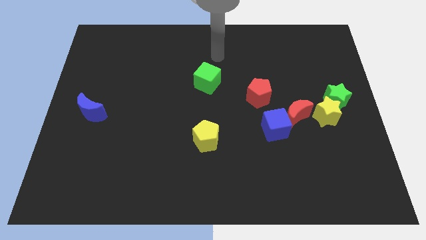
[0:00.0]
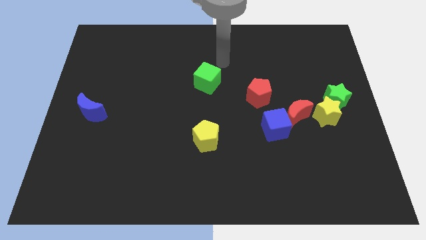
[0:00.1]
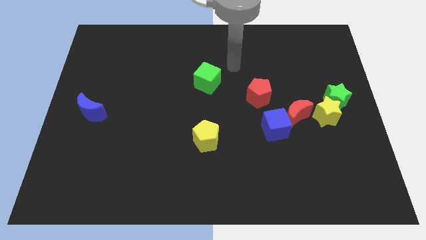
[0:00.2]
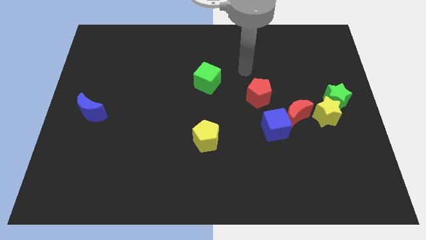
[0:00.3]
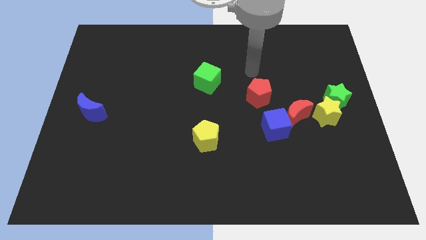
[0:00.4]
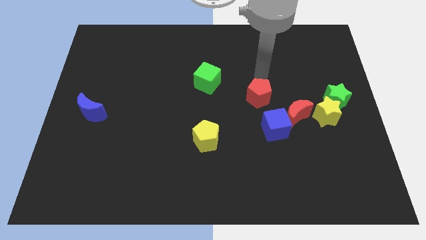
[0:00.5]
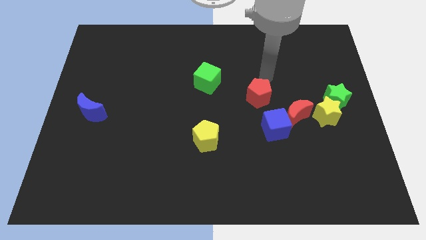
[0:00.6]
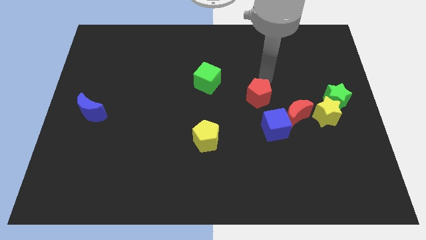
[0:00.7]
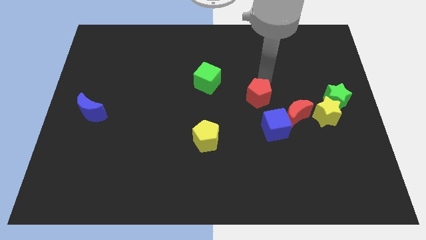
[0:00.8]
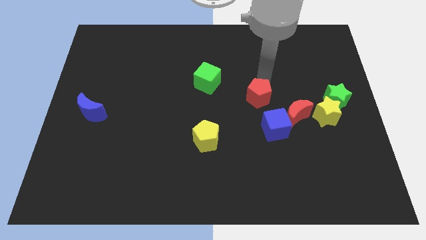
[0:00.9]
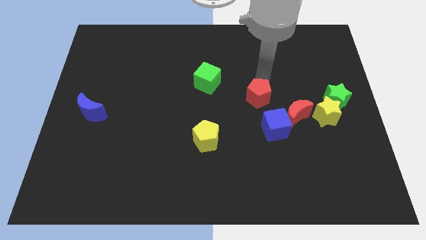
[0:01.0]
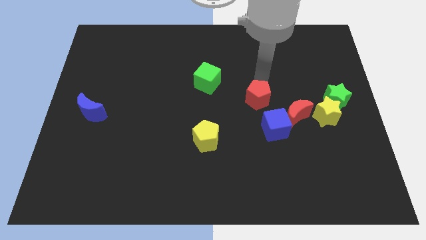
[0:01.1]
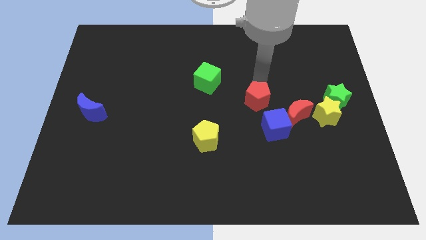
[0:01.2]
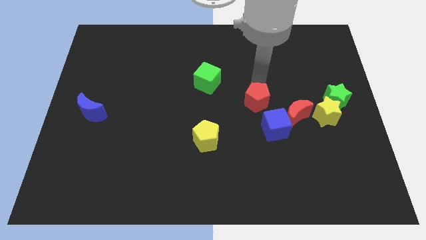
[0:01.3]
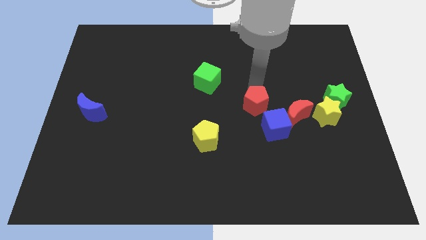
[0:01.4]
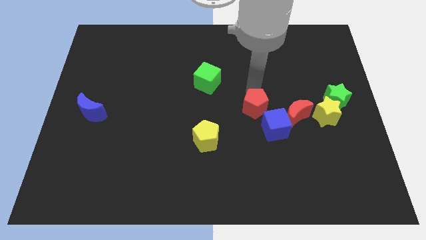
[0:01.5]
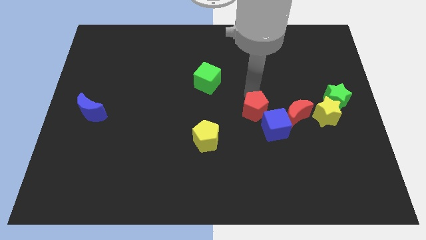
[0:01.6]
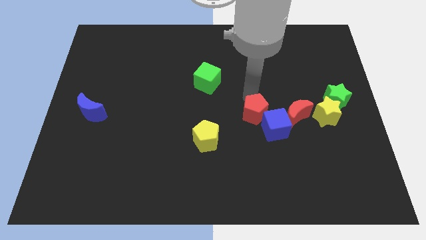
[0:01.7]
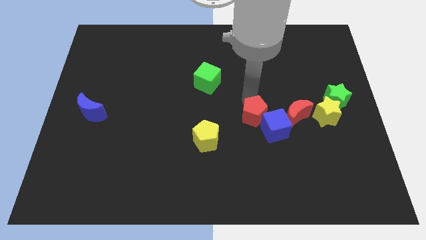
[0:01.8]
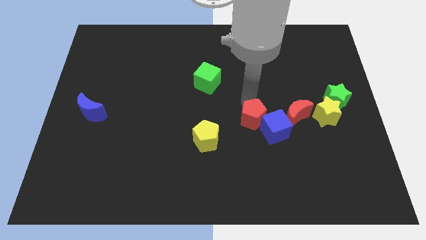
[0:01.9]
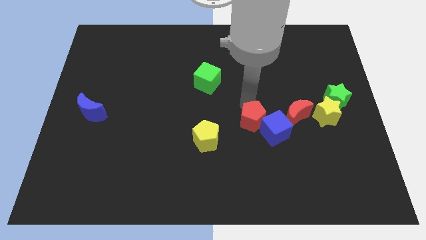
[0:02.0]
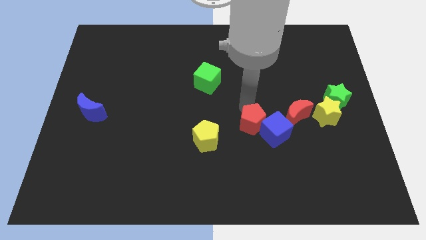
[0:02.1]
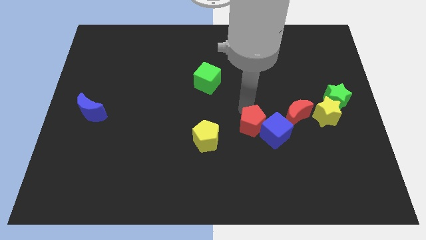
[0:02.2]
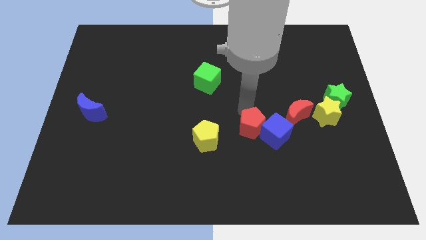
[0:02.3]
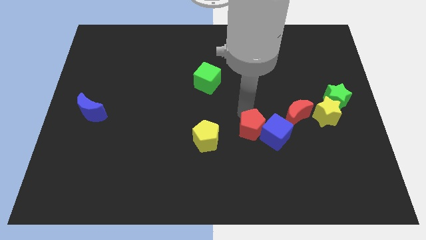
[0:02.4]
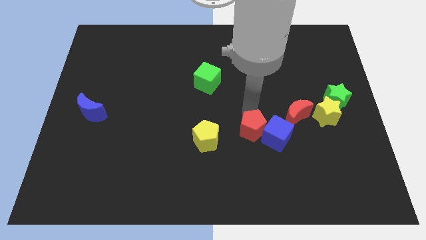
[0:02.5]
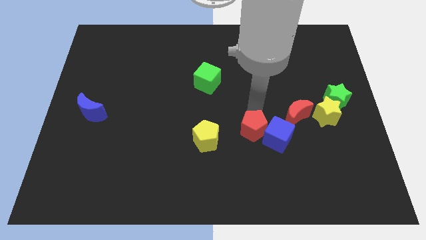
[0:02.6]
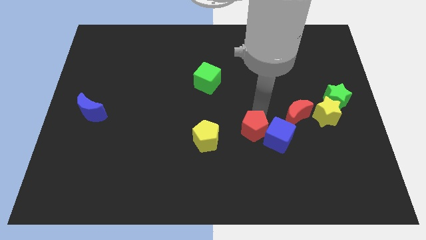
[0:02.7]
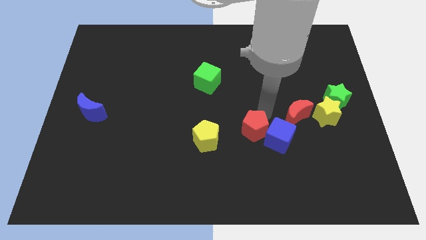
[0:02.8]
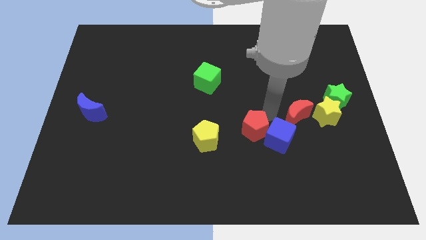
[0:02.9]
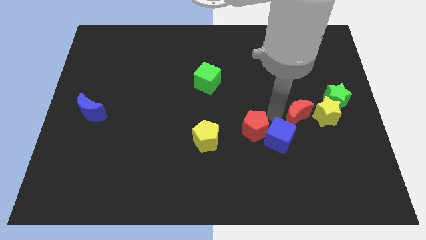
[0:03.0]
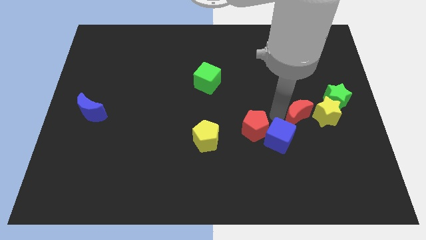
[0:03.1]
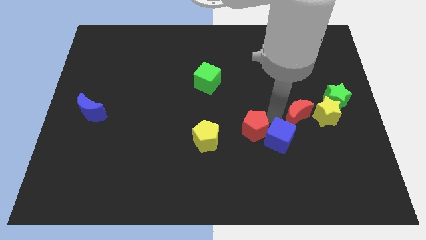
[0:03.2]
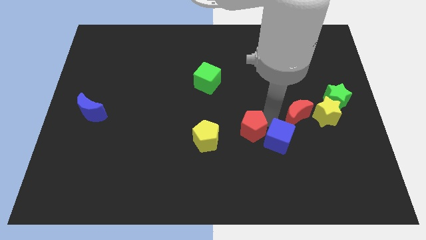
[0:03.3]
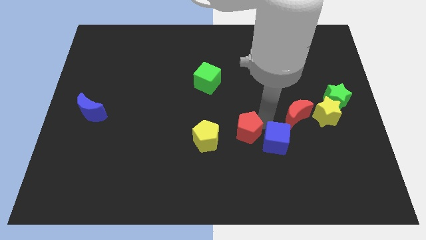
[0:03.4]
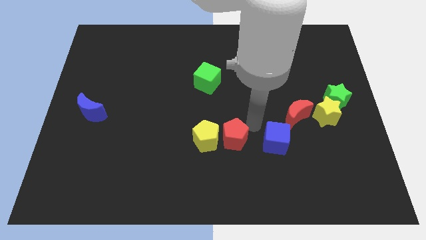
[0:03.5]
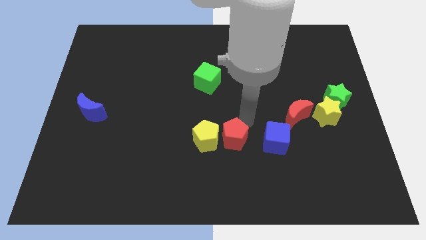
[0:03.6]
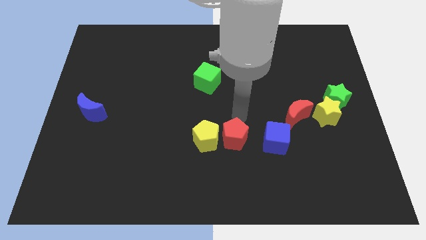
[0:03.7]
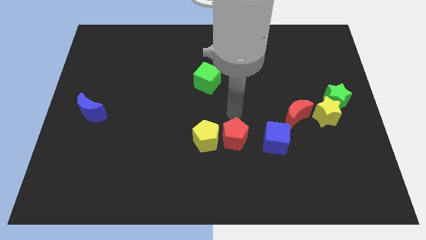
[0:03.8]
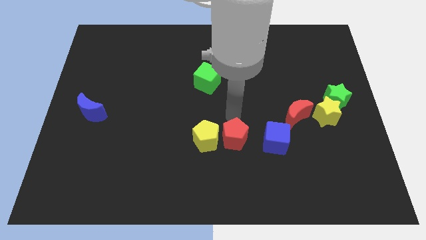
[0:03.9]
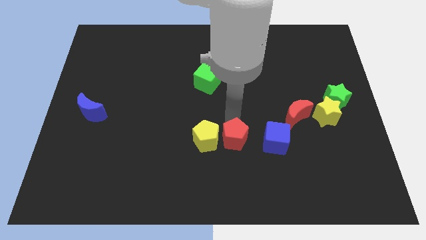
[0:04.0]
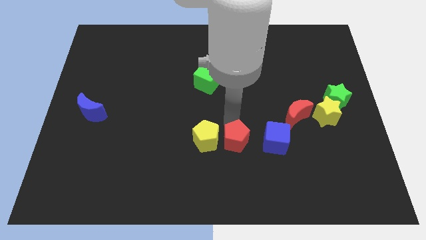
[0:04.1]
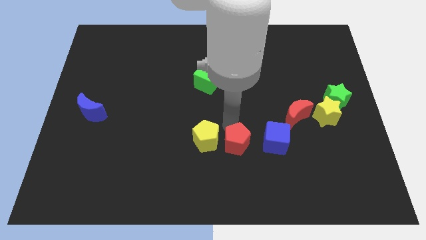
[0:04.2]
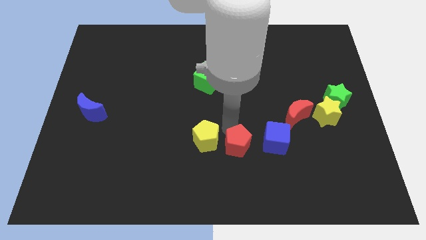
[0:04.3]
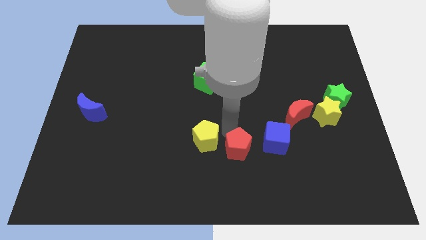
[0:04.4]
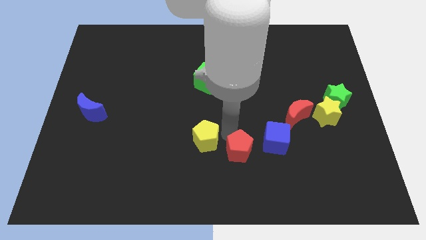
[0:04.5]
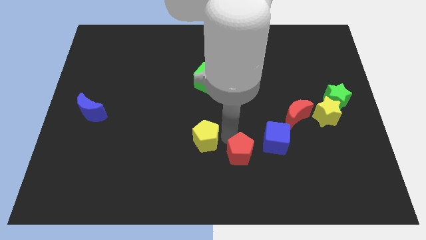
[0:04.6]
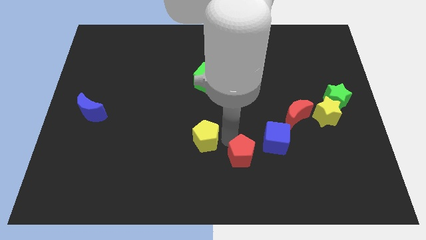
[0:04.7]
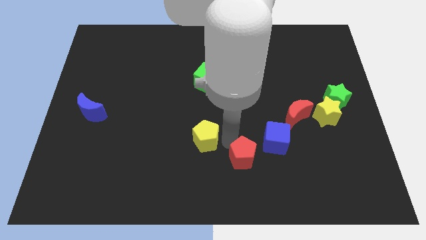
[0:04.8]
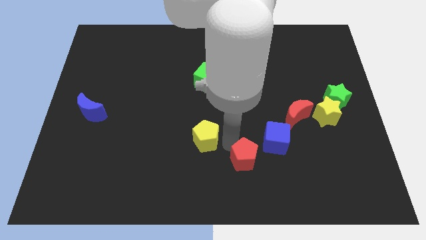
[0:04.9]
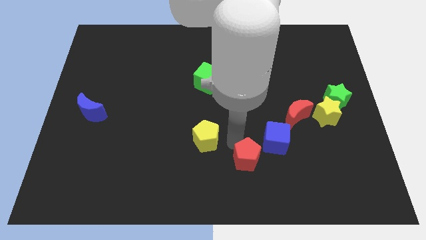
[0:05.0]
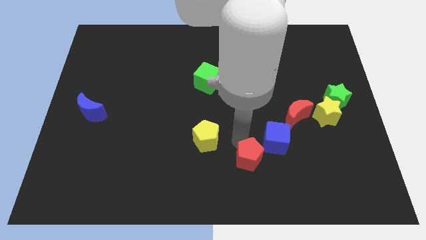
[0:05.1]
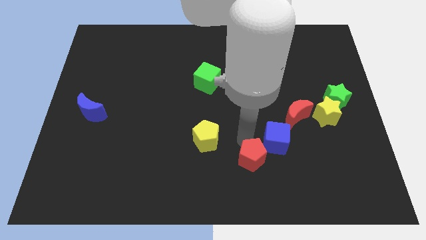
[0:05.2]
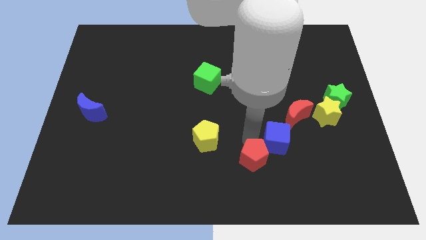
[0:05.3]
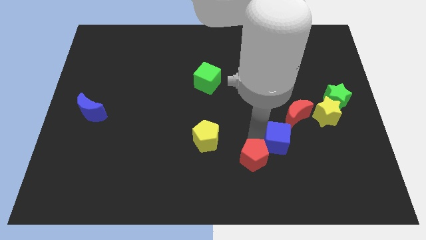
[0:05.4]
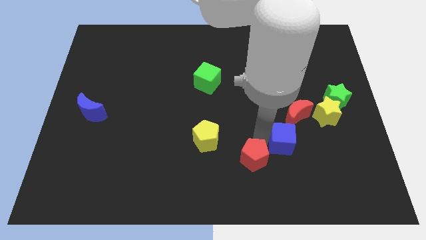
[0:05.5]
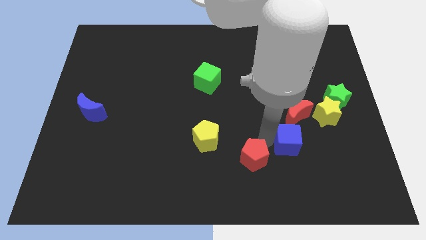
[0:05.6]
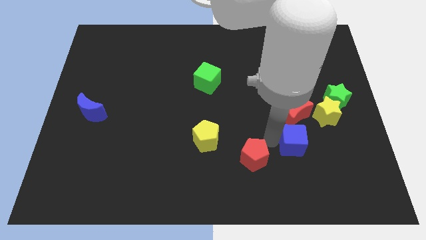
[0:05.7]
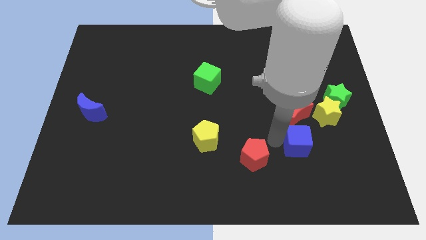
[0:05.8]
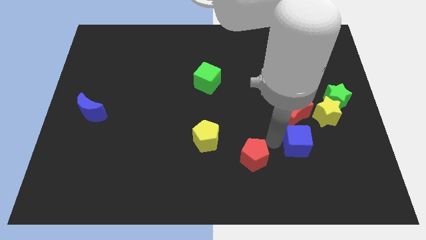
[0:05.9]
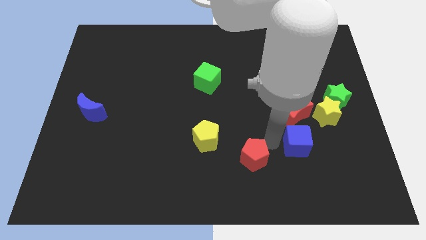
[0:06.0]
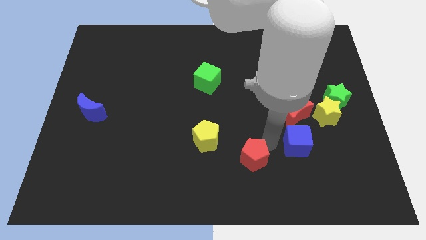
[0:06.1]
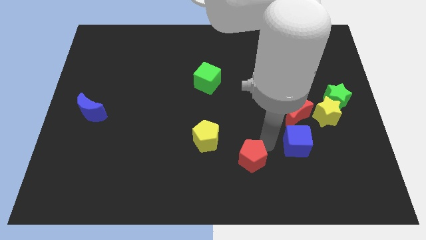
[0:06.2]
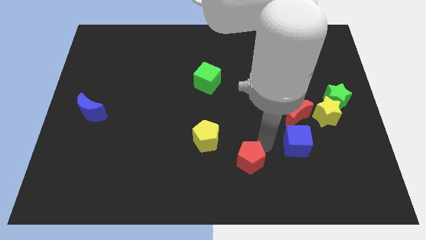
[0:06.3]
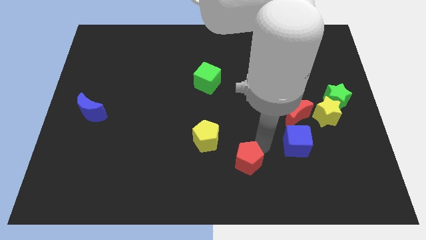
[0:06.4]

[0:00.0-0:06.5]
push the red pentagon to the bottom side

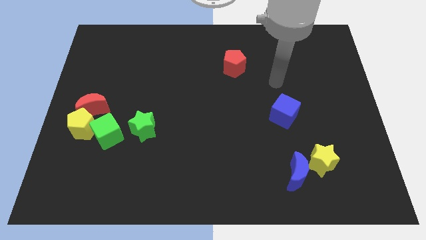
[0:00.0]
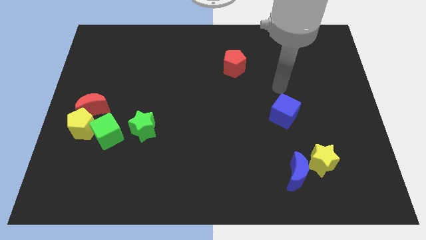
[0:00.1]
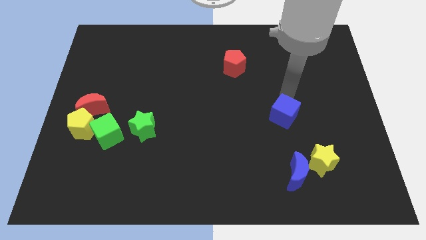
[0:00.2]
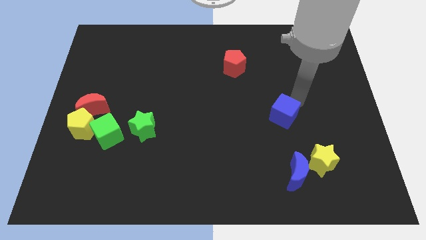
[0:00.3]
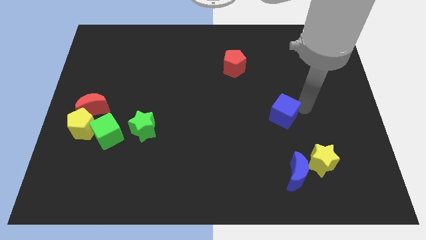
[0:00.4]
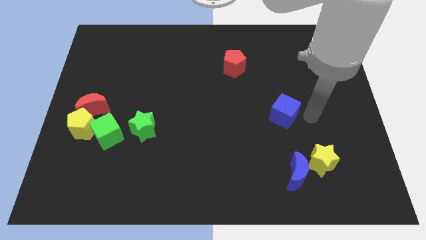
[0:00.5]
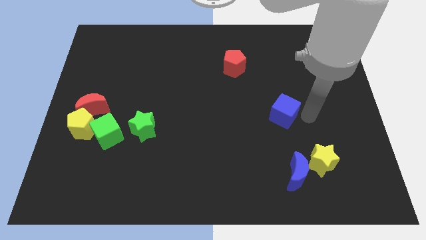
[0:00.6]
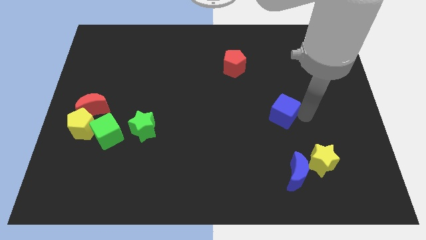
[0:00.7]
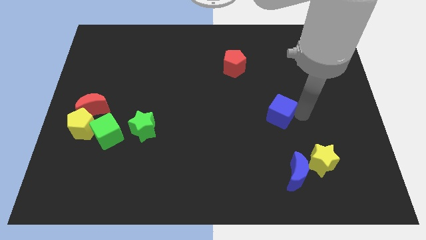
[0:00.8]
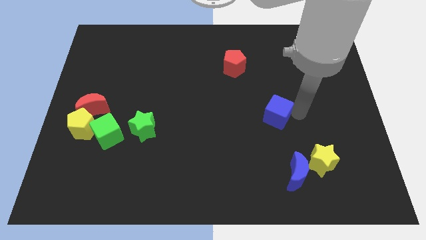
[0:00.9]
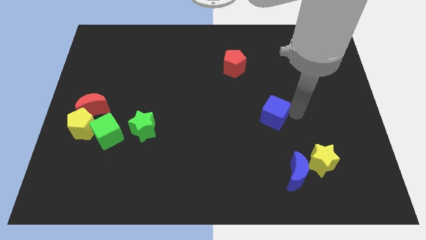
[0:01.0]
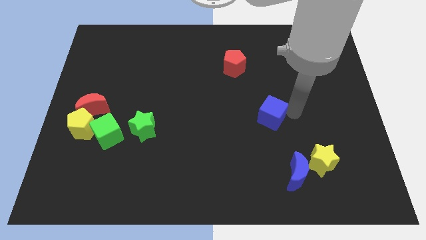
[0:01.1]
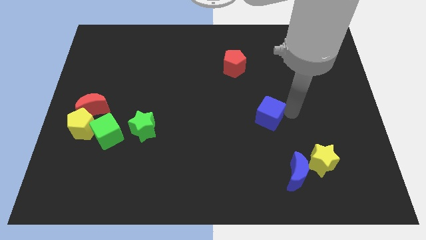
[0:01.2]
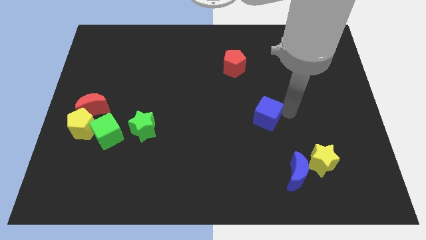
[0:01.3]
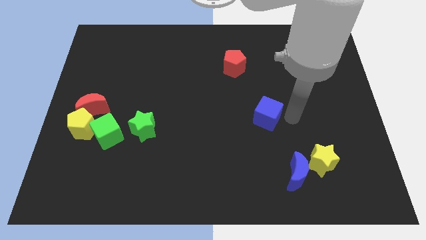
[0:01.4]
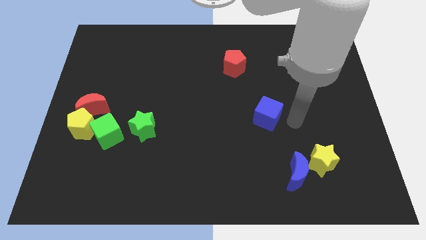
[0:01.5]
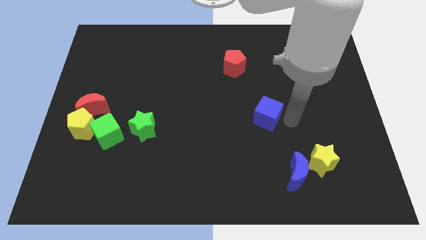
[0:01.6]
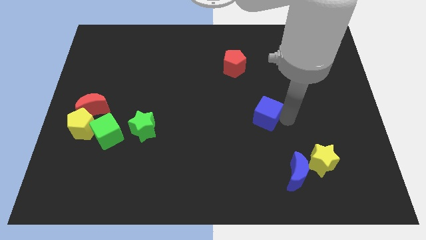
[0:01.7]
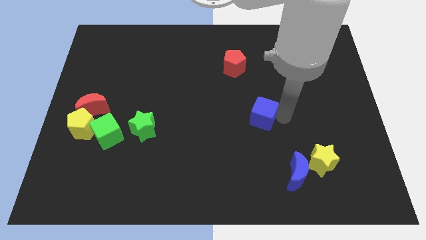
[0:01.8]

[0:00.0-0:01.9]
slide the blue cube to the middle
